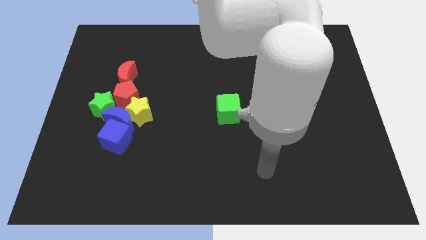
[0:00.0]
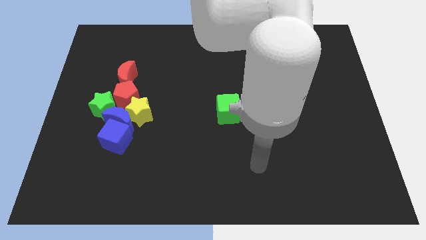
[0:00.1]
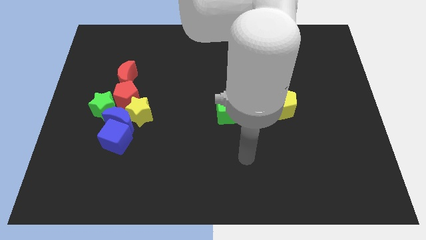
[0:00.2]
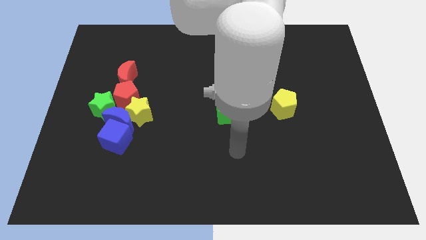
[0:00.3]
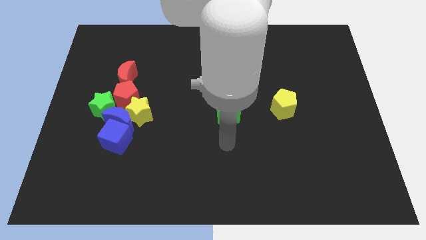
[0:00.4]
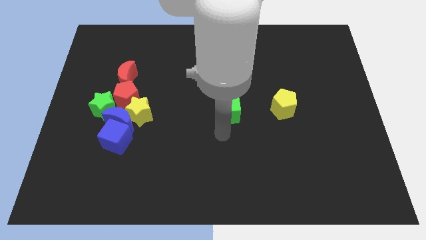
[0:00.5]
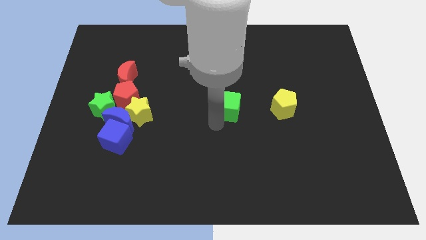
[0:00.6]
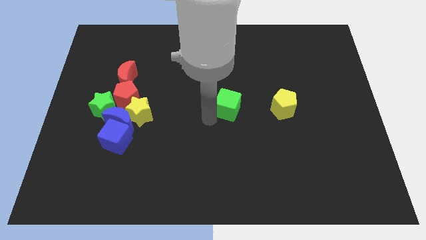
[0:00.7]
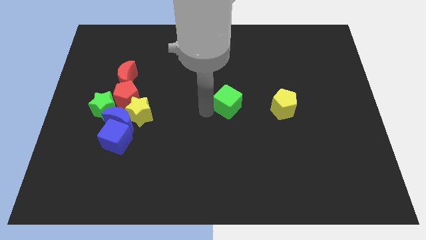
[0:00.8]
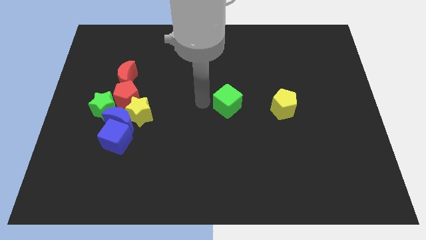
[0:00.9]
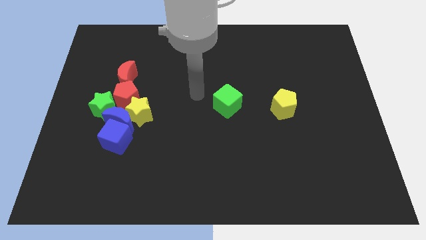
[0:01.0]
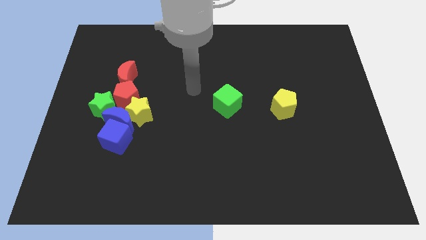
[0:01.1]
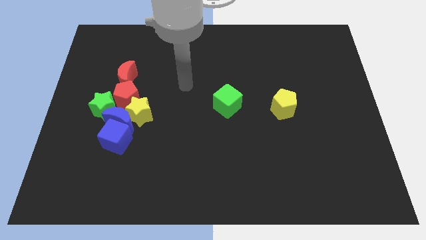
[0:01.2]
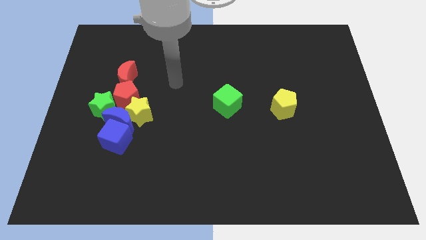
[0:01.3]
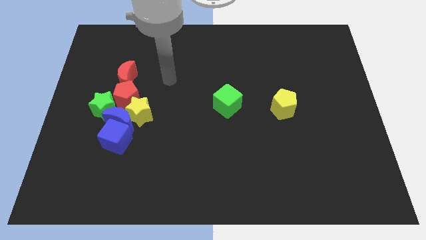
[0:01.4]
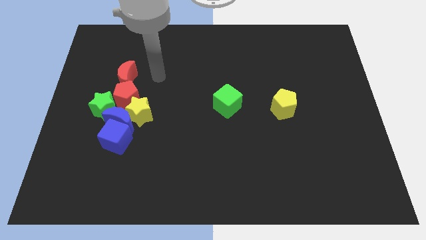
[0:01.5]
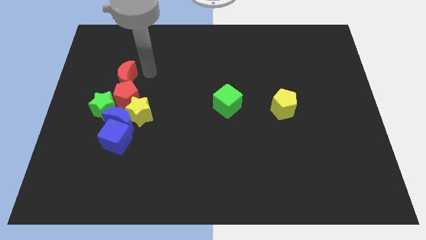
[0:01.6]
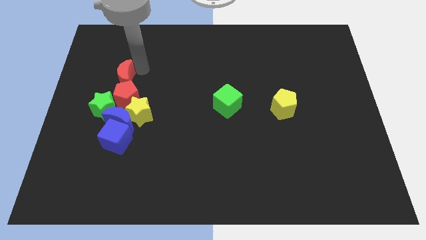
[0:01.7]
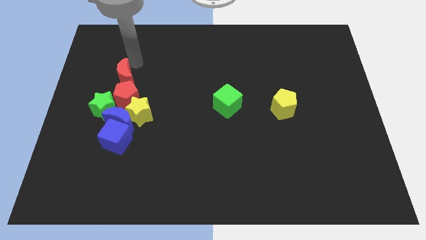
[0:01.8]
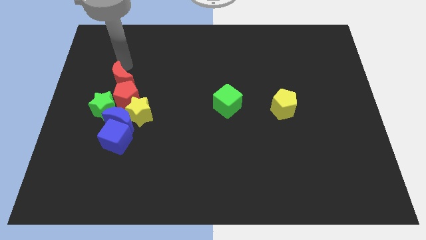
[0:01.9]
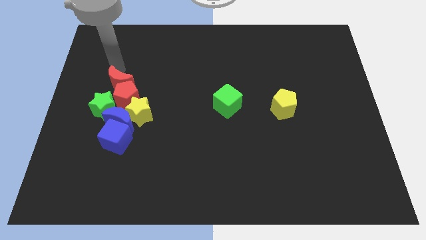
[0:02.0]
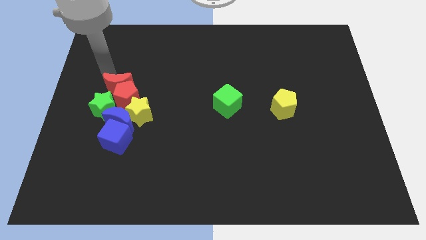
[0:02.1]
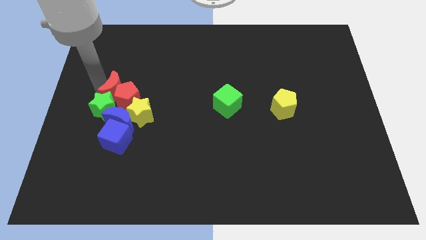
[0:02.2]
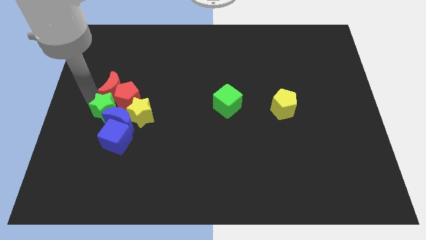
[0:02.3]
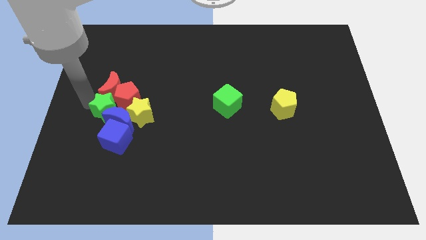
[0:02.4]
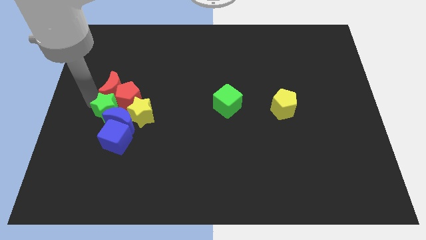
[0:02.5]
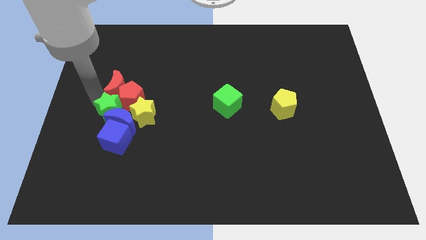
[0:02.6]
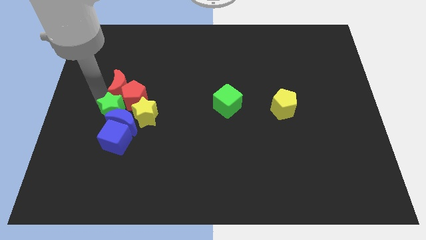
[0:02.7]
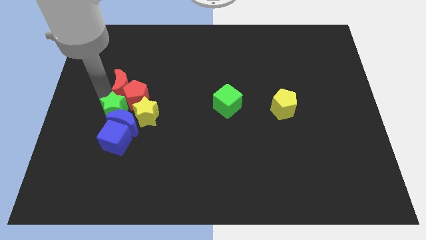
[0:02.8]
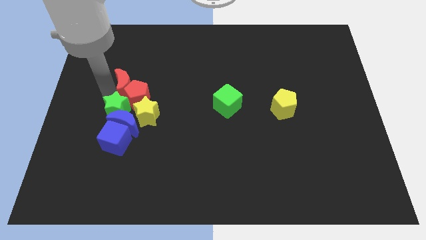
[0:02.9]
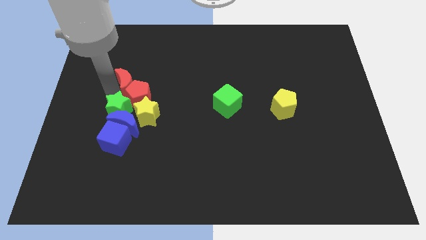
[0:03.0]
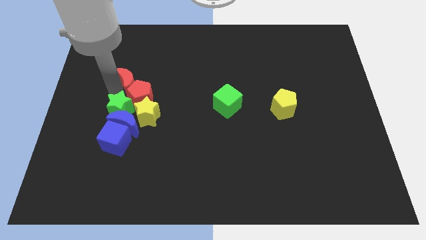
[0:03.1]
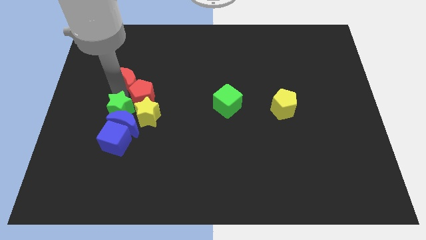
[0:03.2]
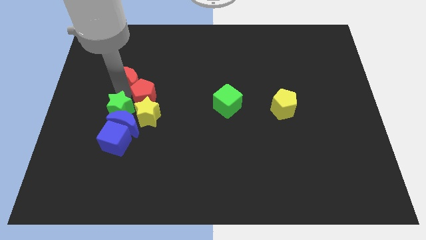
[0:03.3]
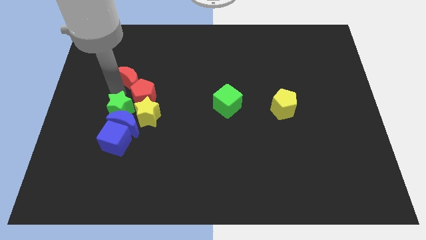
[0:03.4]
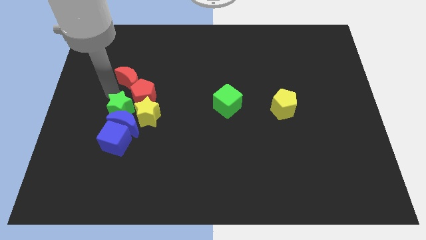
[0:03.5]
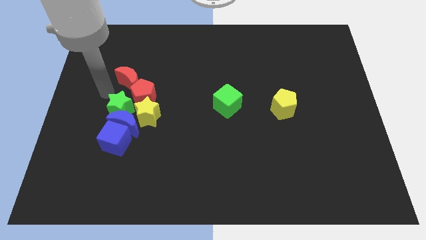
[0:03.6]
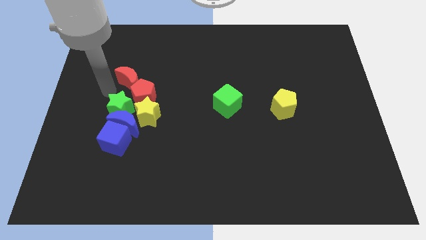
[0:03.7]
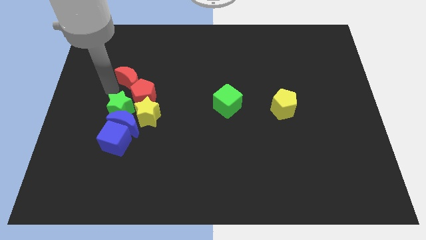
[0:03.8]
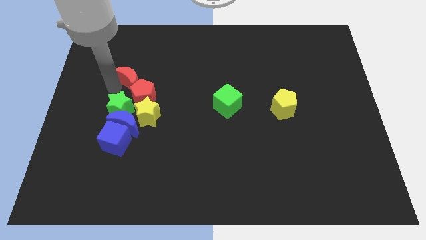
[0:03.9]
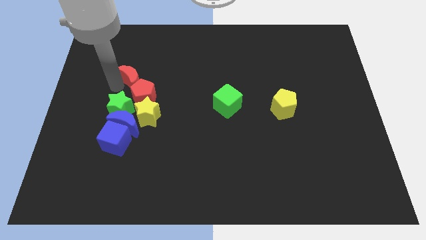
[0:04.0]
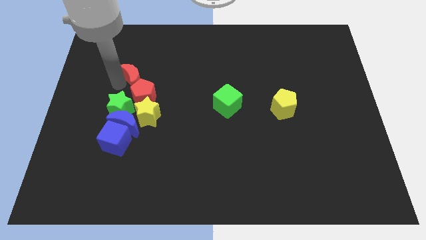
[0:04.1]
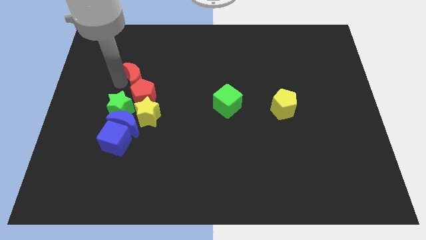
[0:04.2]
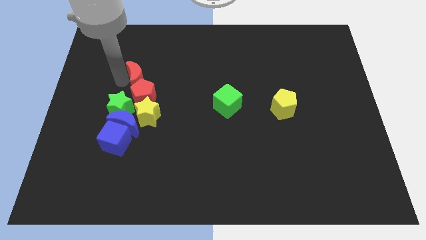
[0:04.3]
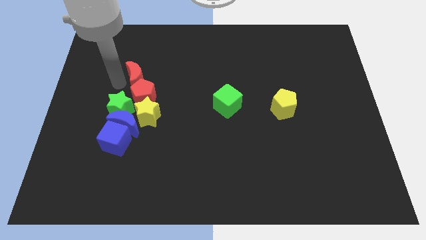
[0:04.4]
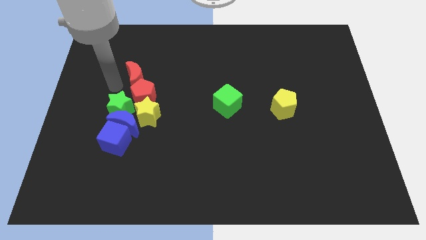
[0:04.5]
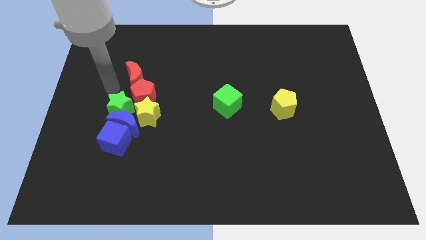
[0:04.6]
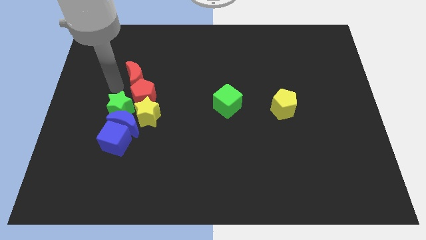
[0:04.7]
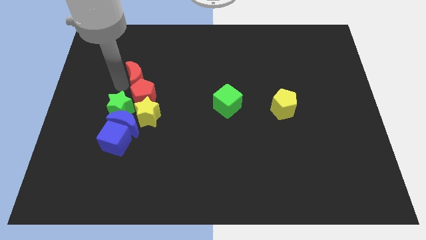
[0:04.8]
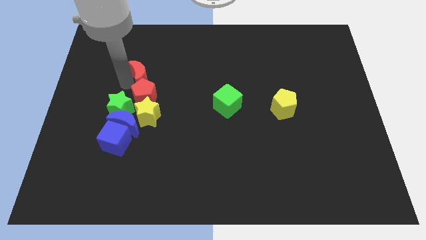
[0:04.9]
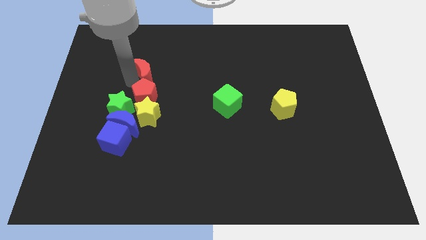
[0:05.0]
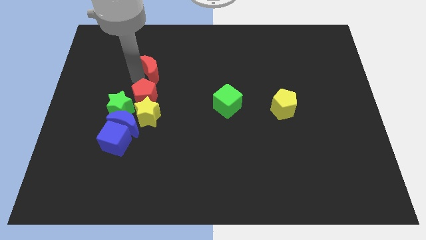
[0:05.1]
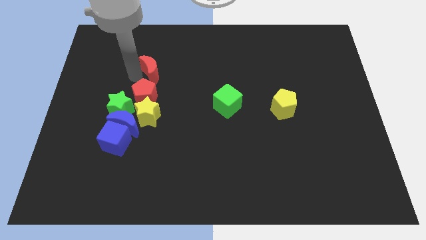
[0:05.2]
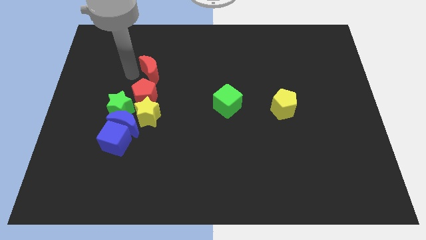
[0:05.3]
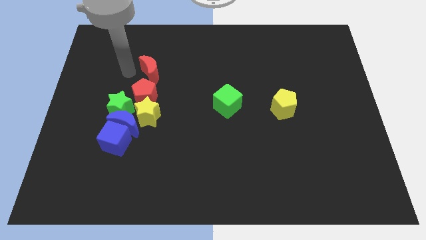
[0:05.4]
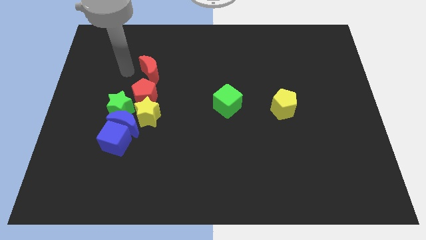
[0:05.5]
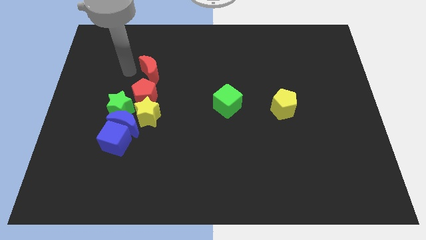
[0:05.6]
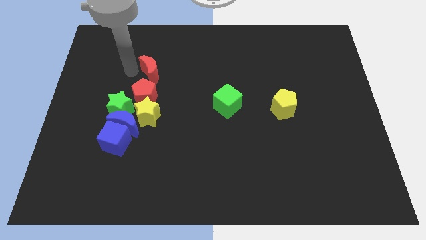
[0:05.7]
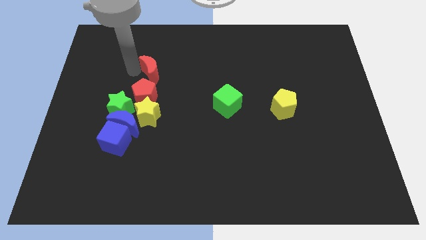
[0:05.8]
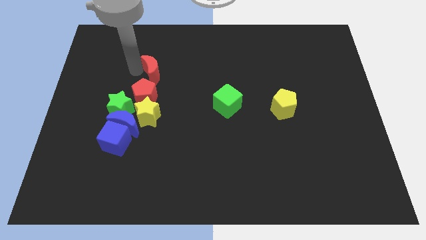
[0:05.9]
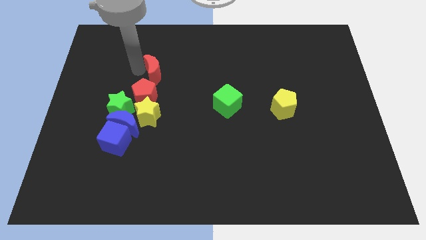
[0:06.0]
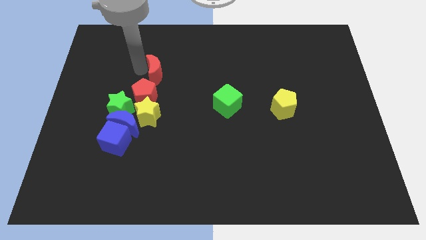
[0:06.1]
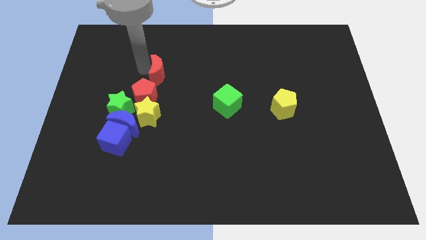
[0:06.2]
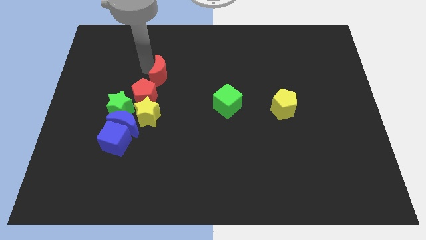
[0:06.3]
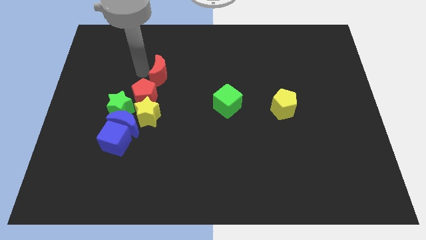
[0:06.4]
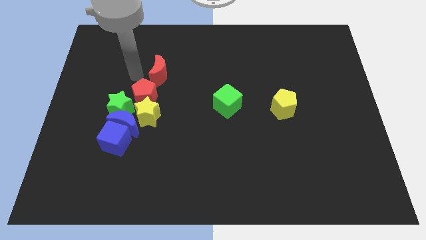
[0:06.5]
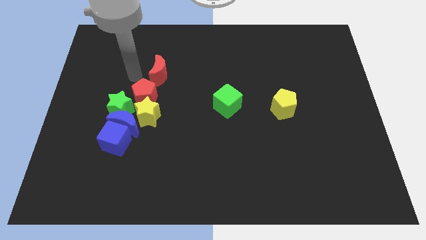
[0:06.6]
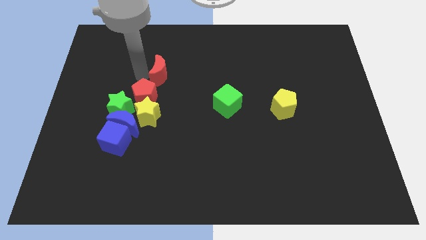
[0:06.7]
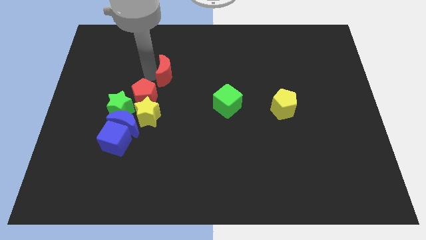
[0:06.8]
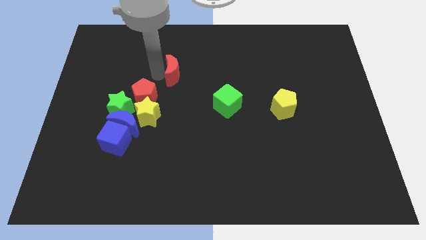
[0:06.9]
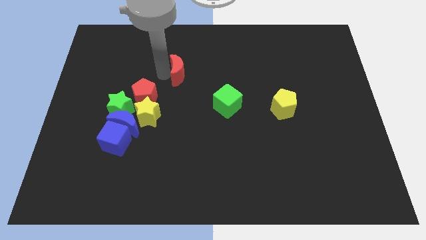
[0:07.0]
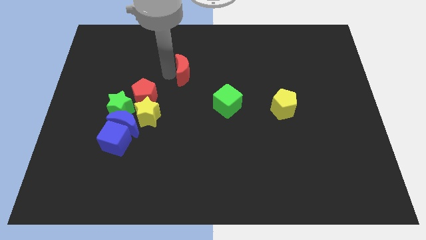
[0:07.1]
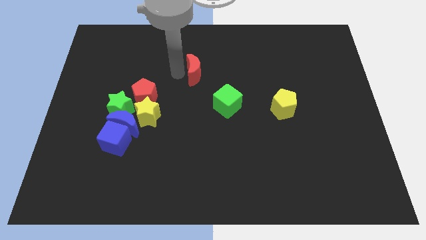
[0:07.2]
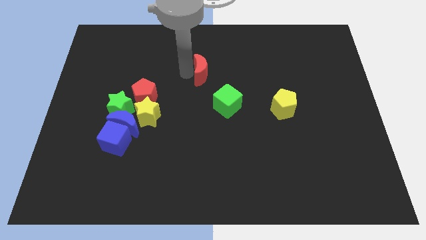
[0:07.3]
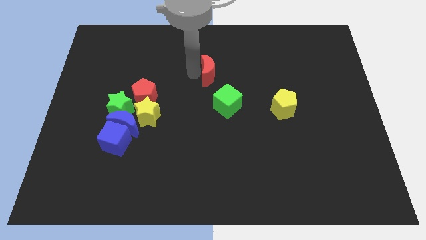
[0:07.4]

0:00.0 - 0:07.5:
slide the red moon above the green cube
